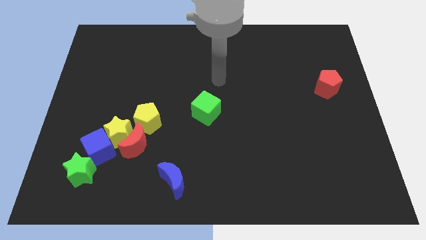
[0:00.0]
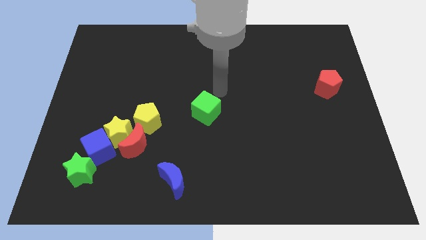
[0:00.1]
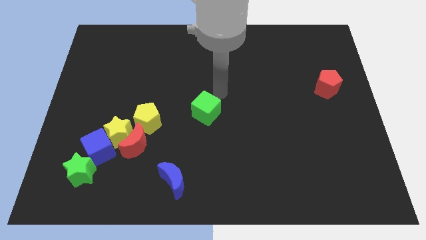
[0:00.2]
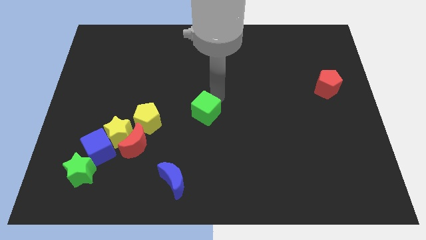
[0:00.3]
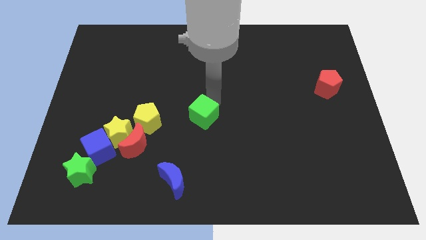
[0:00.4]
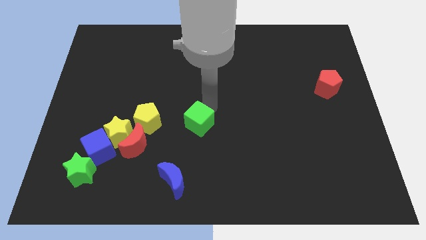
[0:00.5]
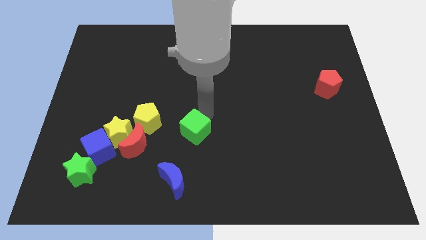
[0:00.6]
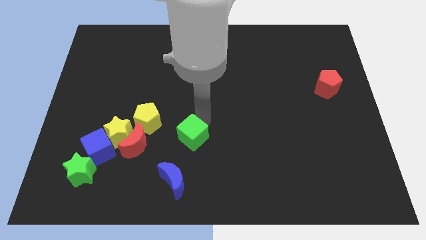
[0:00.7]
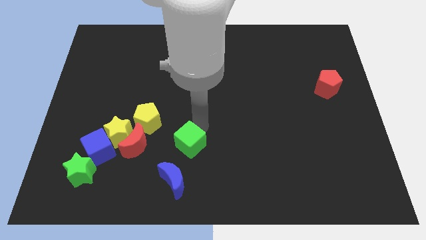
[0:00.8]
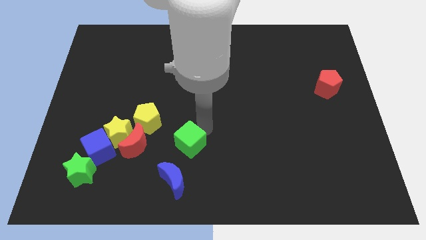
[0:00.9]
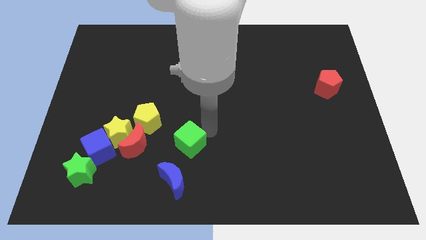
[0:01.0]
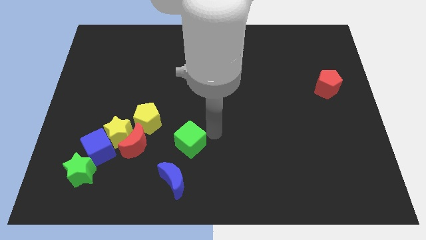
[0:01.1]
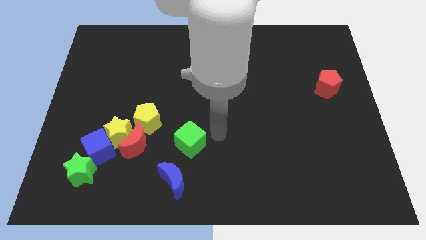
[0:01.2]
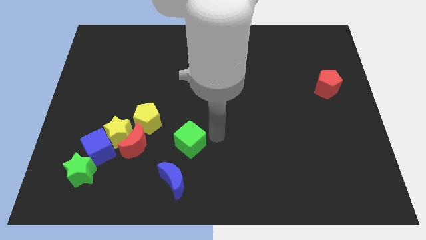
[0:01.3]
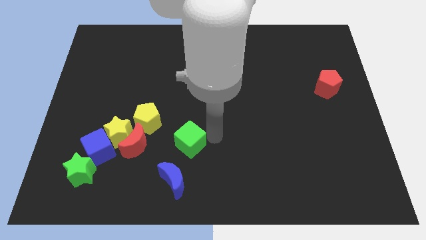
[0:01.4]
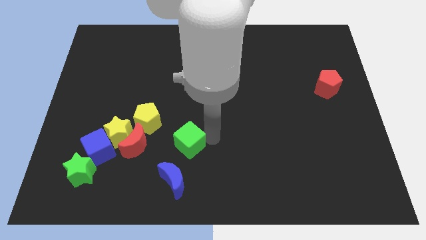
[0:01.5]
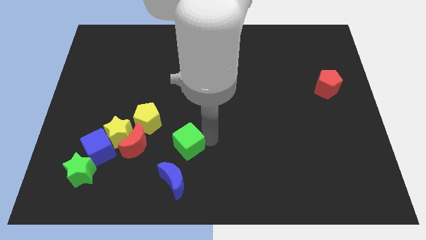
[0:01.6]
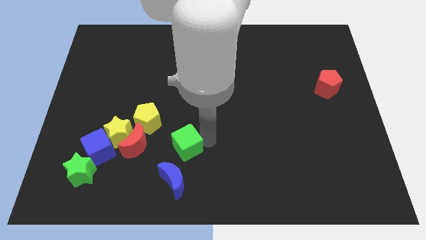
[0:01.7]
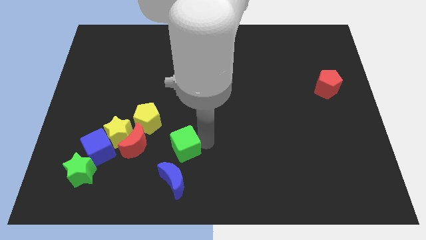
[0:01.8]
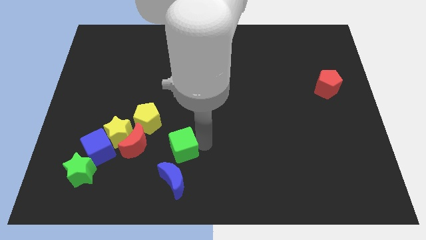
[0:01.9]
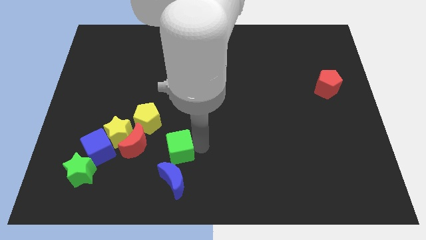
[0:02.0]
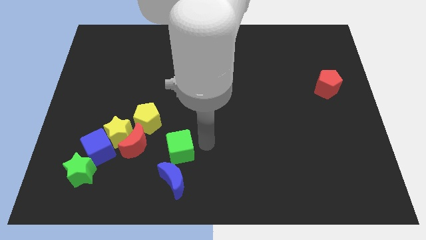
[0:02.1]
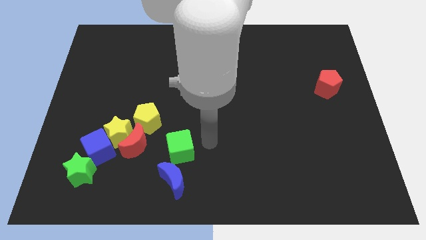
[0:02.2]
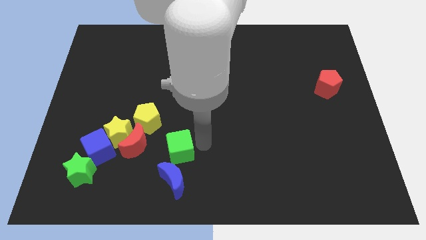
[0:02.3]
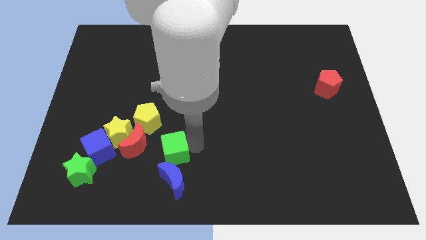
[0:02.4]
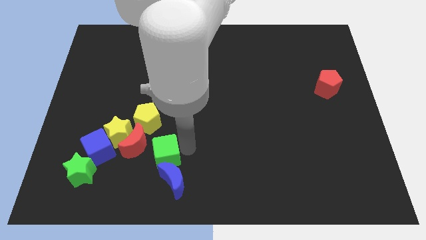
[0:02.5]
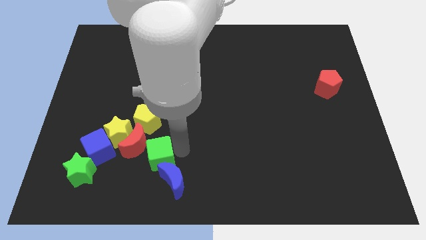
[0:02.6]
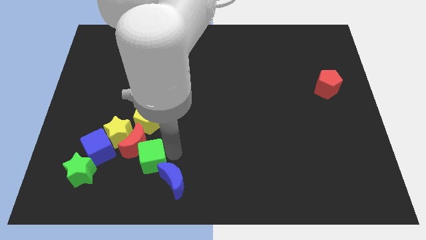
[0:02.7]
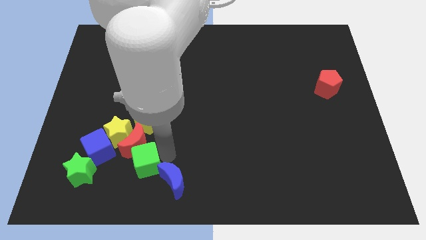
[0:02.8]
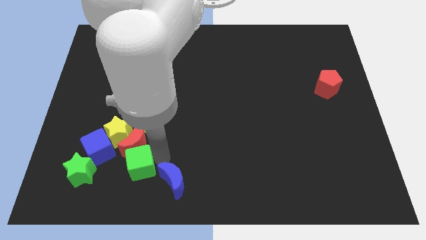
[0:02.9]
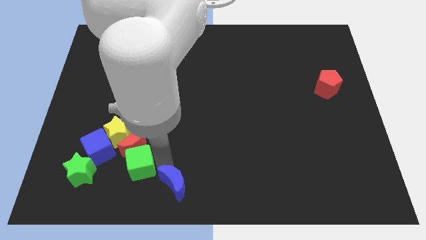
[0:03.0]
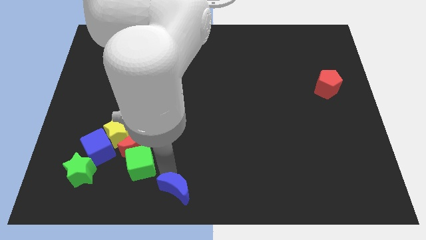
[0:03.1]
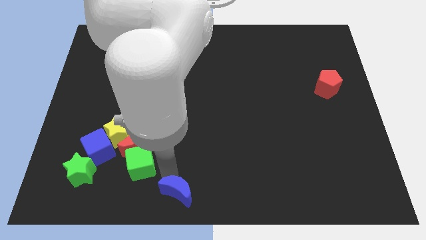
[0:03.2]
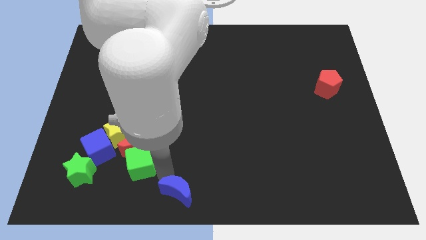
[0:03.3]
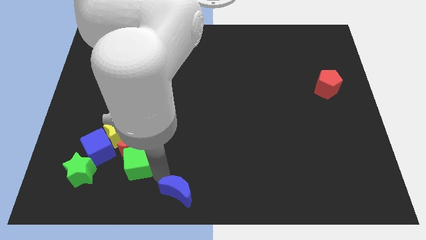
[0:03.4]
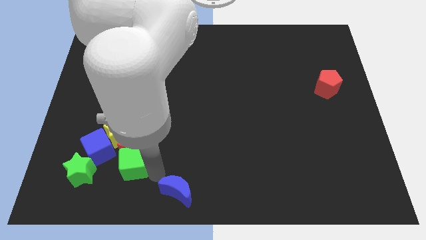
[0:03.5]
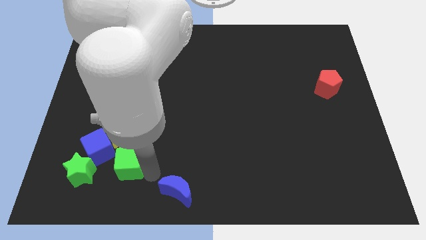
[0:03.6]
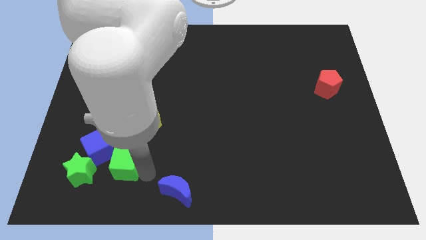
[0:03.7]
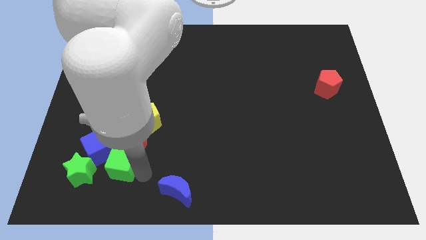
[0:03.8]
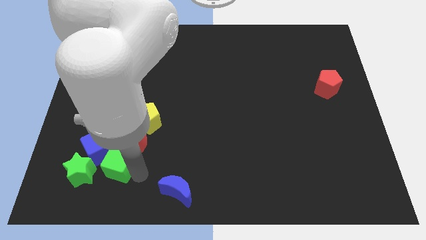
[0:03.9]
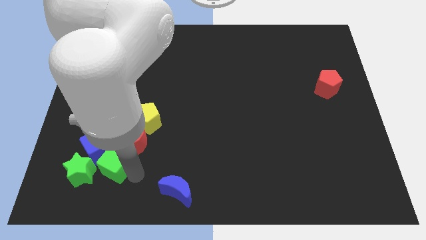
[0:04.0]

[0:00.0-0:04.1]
slide the green cube to the blue cube

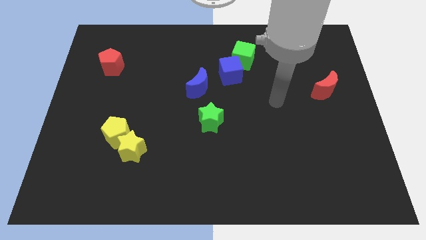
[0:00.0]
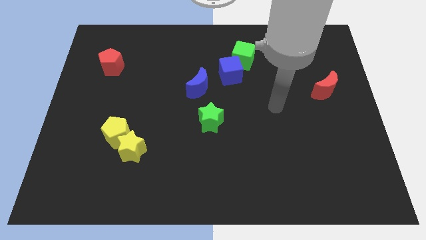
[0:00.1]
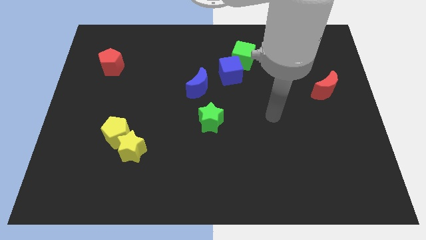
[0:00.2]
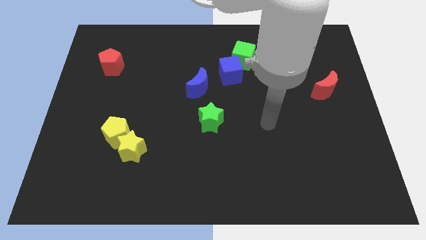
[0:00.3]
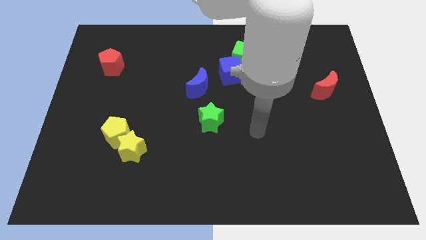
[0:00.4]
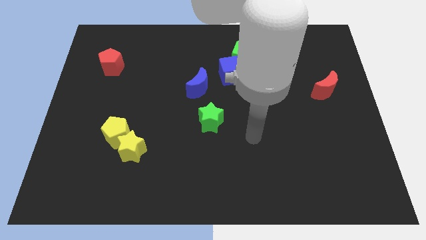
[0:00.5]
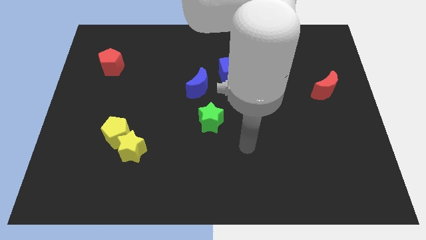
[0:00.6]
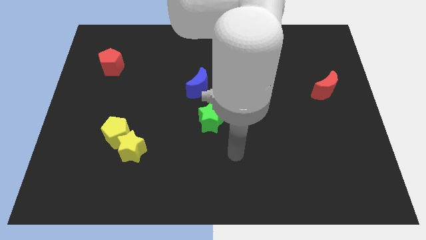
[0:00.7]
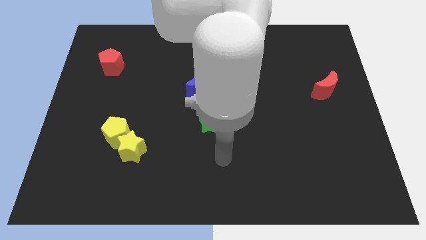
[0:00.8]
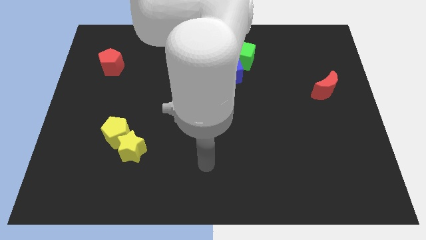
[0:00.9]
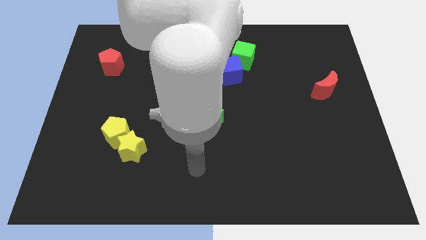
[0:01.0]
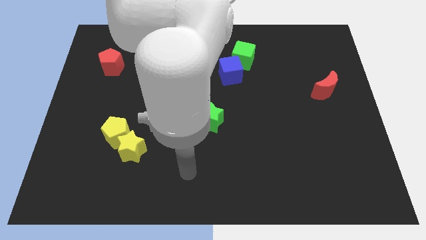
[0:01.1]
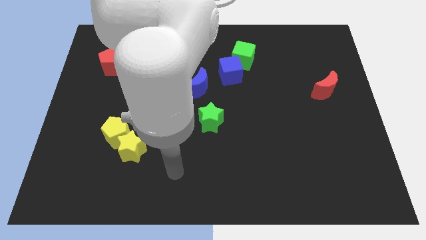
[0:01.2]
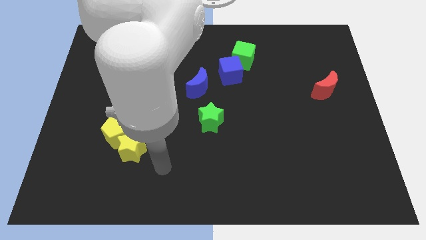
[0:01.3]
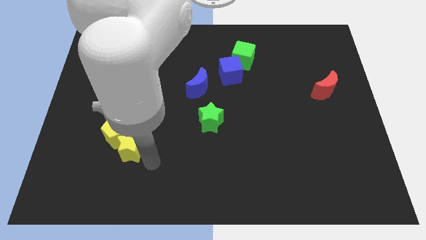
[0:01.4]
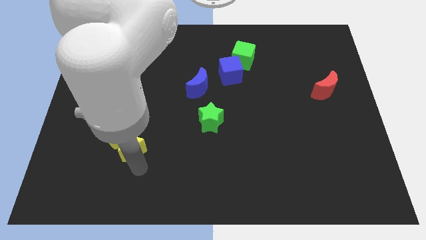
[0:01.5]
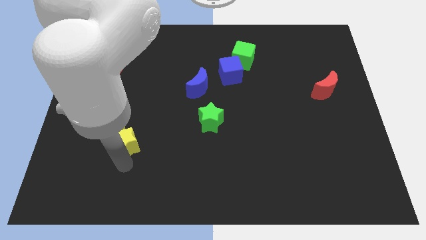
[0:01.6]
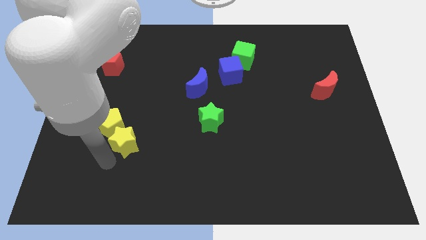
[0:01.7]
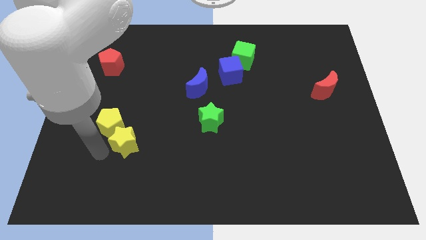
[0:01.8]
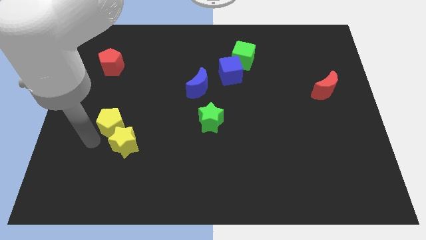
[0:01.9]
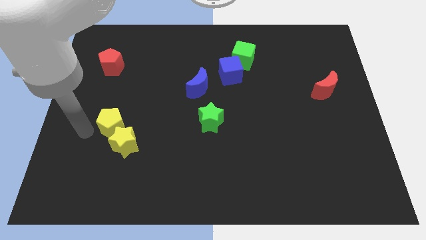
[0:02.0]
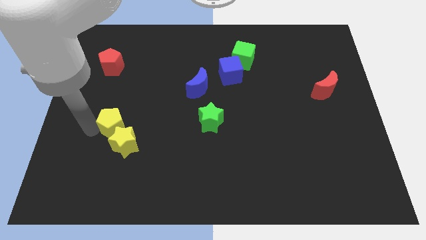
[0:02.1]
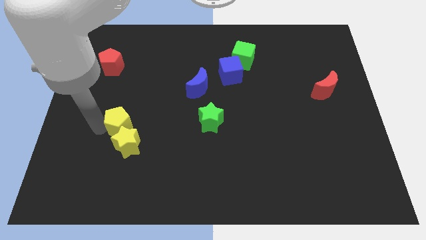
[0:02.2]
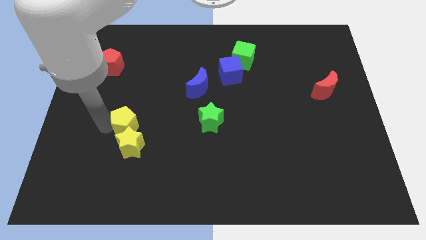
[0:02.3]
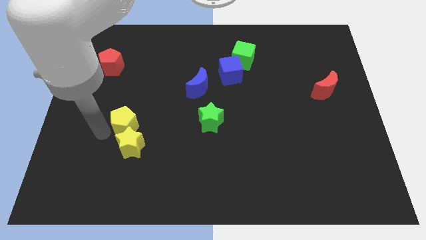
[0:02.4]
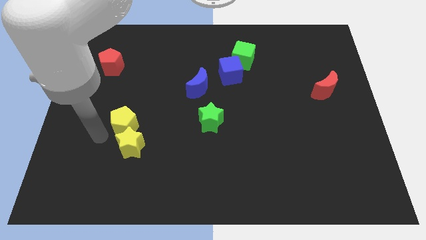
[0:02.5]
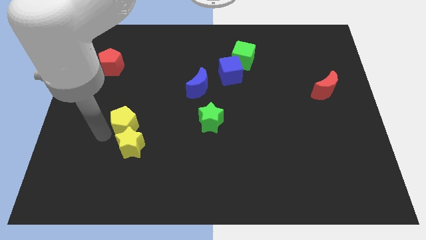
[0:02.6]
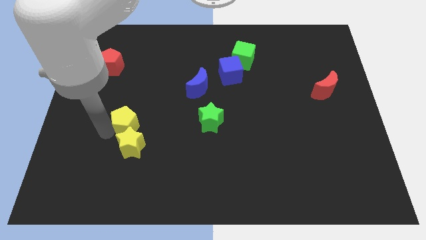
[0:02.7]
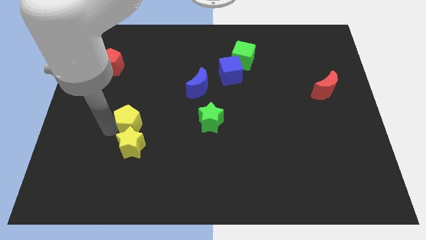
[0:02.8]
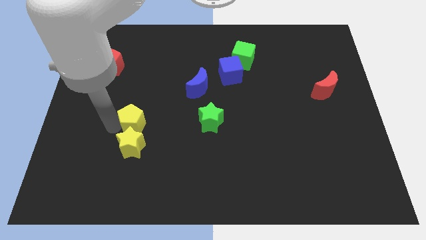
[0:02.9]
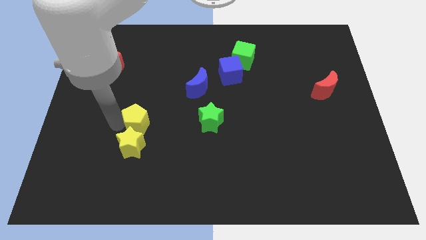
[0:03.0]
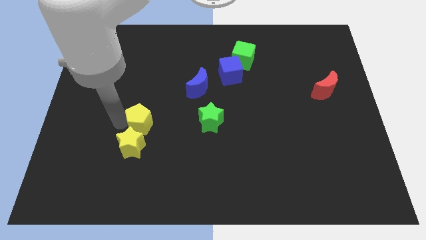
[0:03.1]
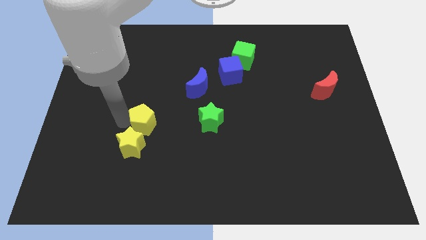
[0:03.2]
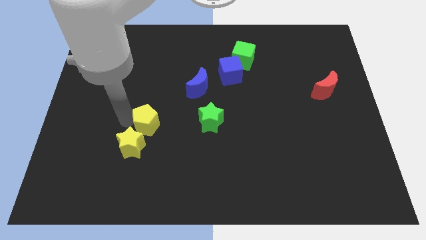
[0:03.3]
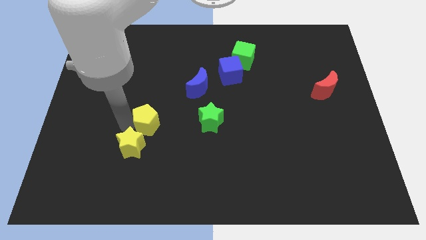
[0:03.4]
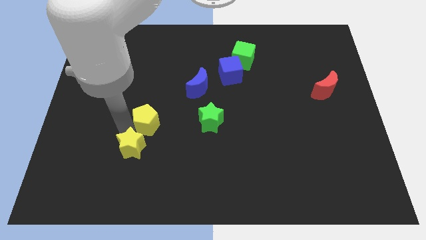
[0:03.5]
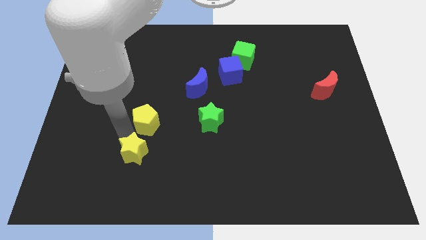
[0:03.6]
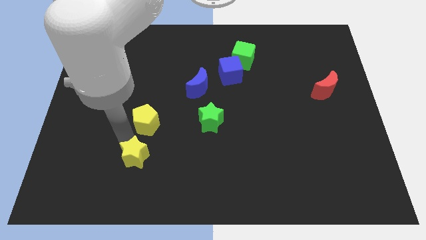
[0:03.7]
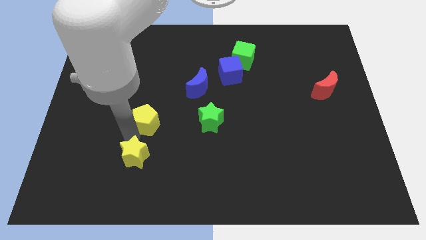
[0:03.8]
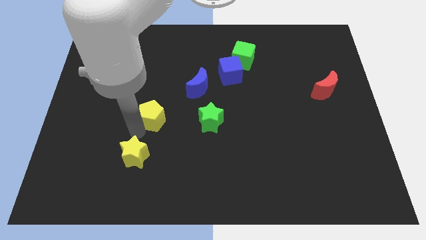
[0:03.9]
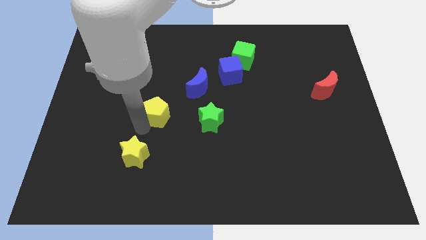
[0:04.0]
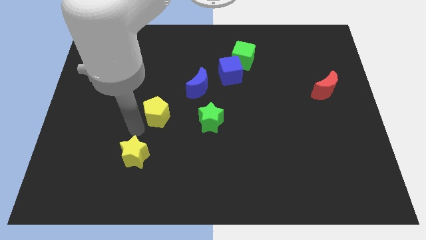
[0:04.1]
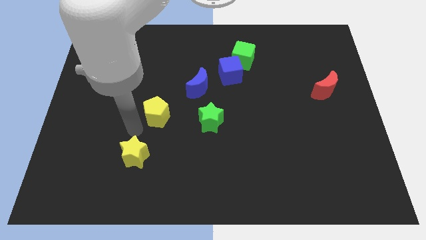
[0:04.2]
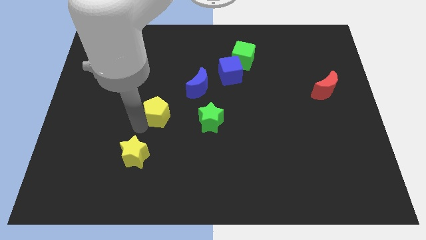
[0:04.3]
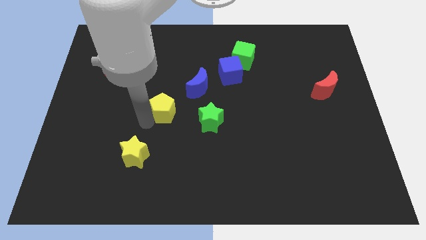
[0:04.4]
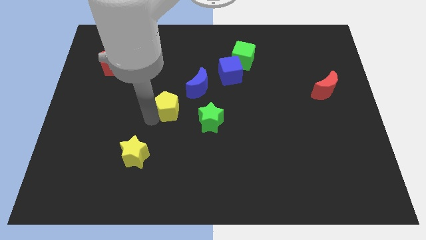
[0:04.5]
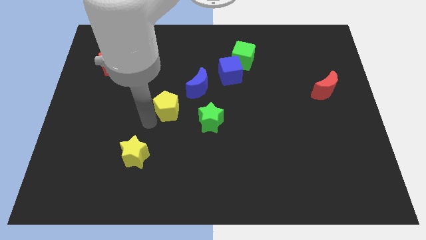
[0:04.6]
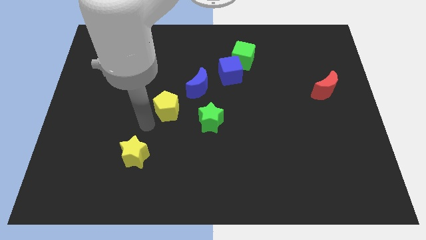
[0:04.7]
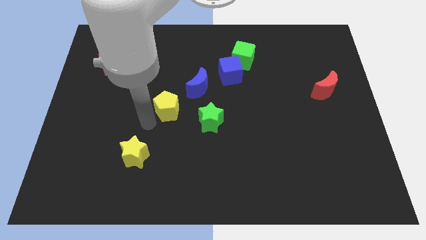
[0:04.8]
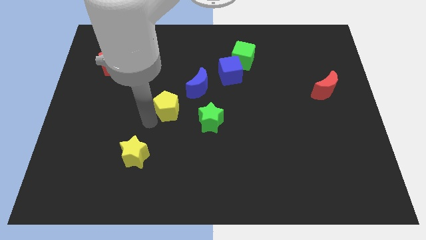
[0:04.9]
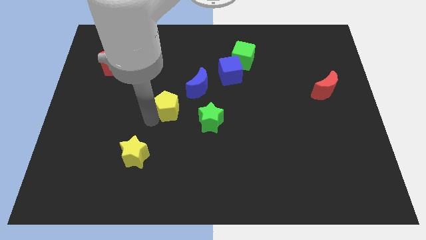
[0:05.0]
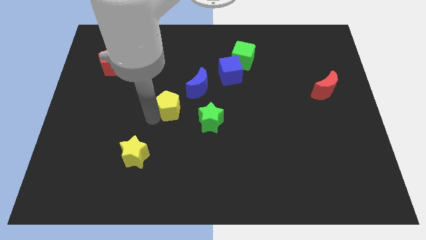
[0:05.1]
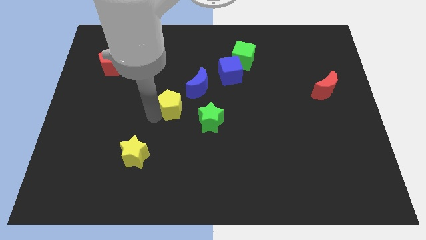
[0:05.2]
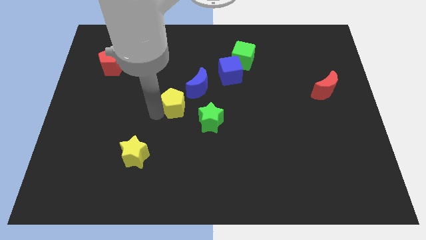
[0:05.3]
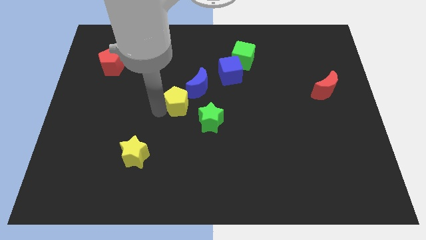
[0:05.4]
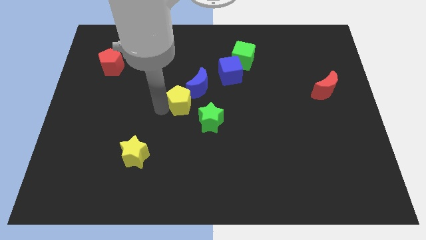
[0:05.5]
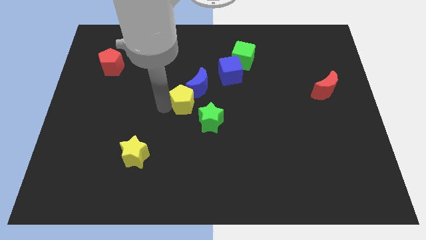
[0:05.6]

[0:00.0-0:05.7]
move the yellow pentagon to the blue moon
